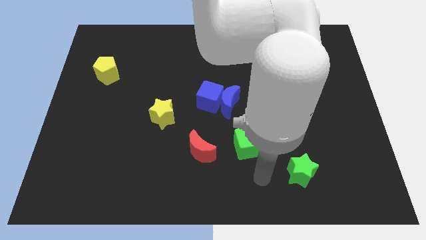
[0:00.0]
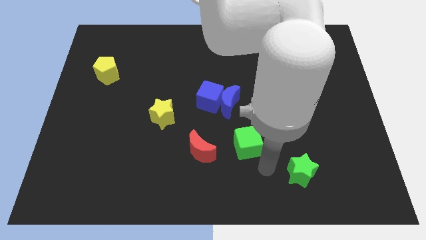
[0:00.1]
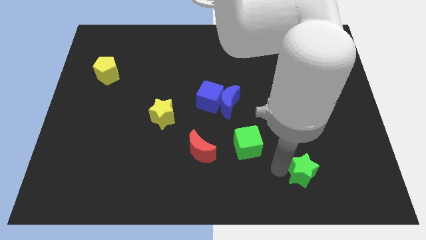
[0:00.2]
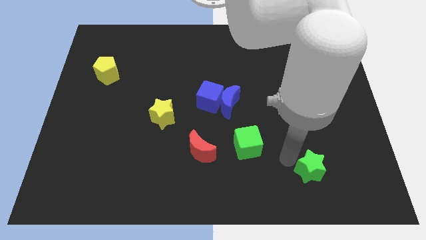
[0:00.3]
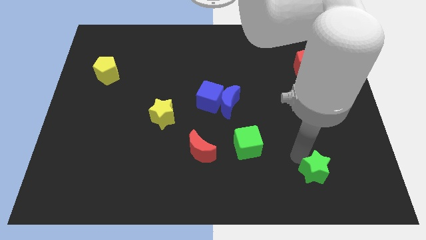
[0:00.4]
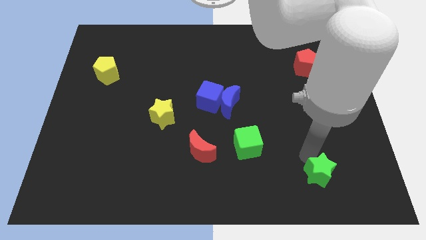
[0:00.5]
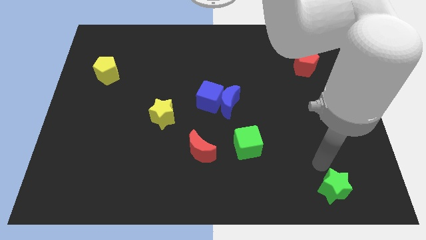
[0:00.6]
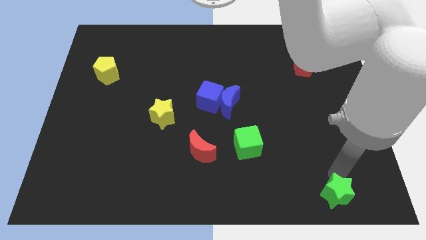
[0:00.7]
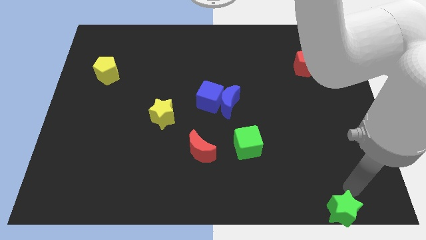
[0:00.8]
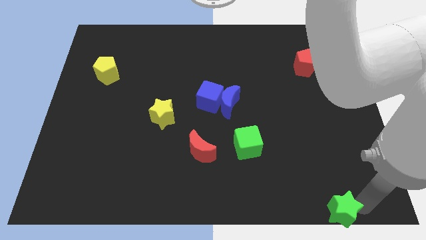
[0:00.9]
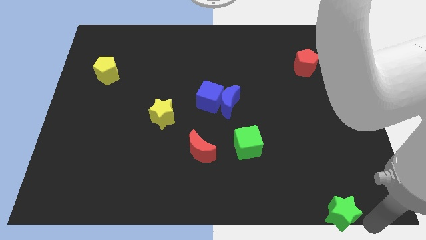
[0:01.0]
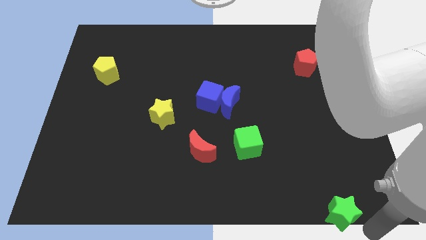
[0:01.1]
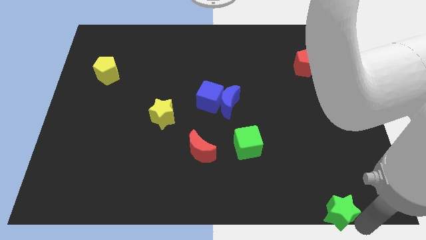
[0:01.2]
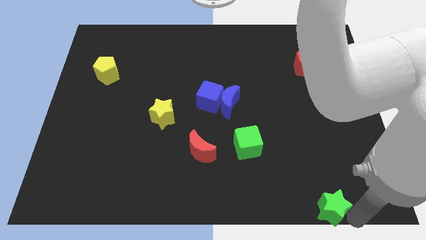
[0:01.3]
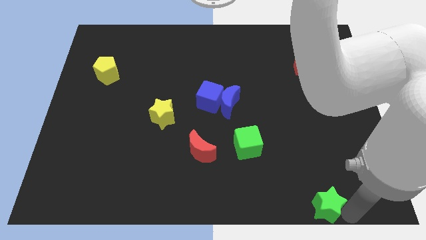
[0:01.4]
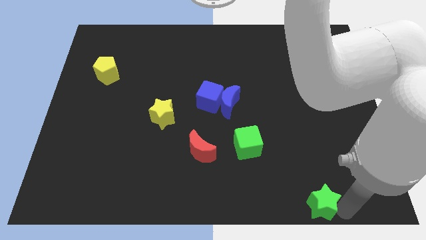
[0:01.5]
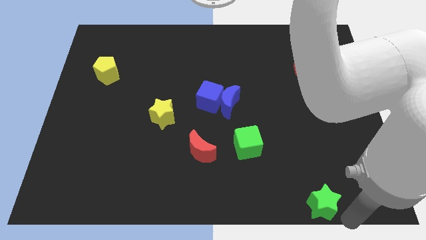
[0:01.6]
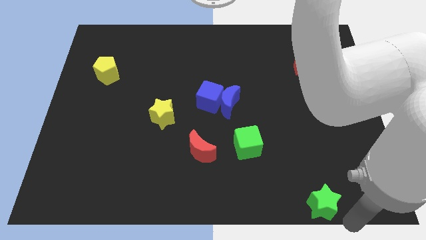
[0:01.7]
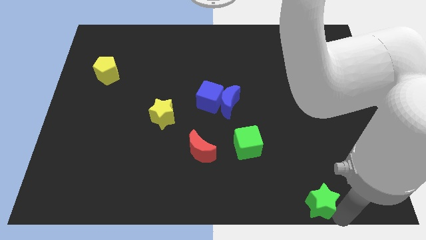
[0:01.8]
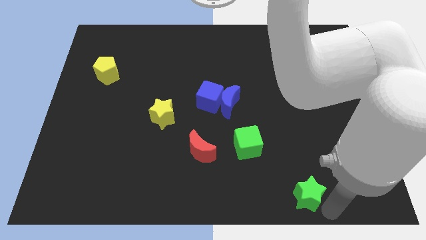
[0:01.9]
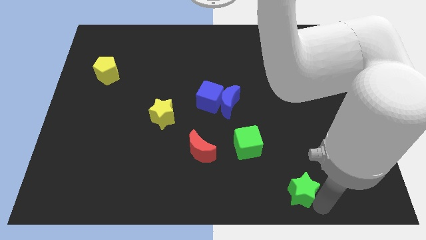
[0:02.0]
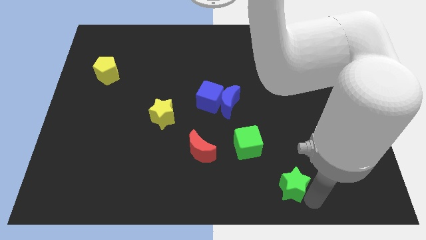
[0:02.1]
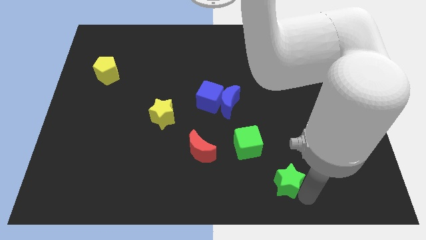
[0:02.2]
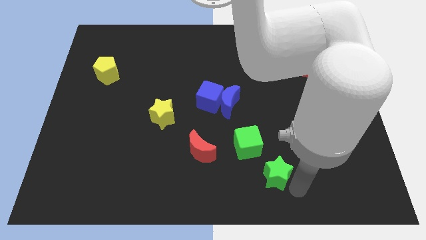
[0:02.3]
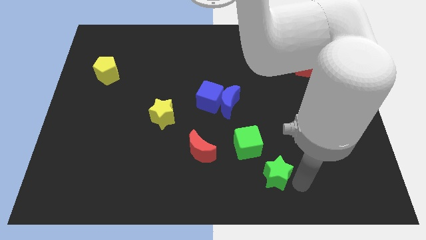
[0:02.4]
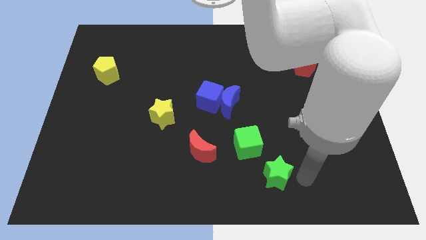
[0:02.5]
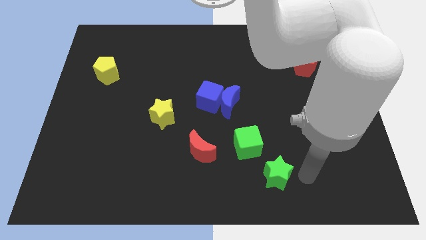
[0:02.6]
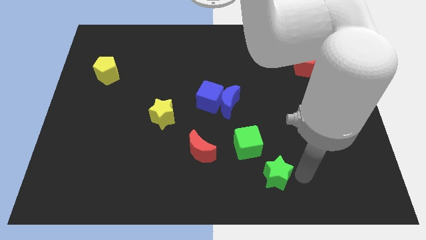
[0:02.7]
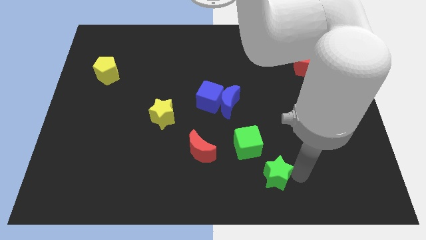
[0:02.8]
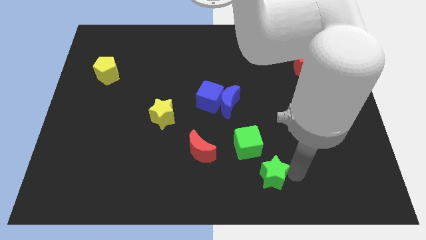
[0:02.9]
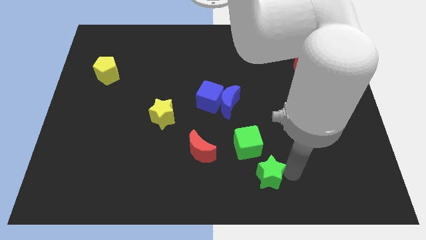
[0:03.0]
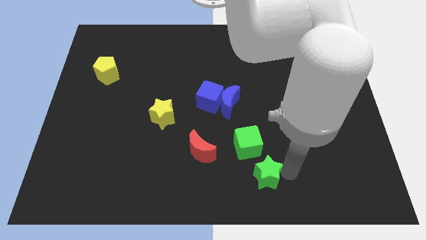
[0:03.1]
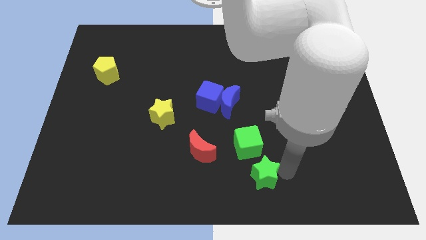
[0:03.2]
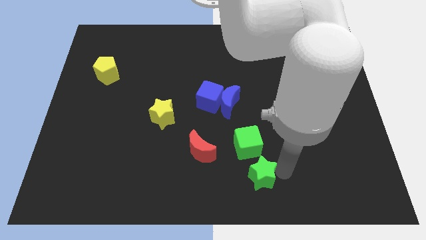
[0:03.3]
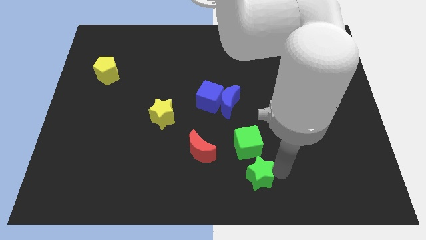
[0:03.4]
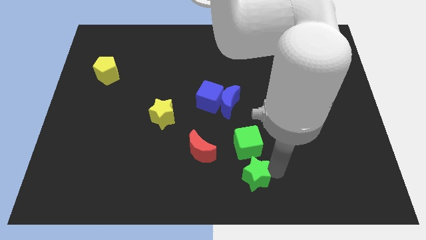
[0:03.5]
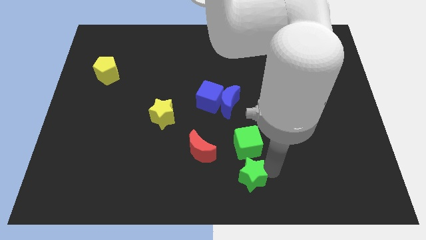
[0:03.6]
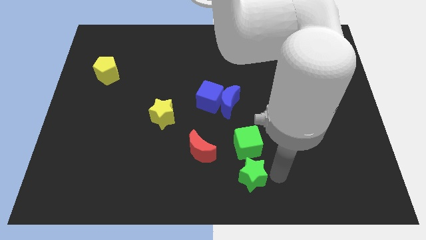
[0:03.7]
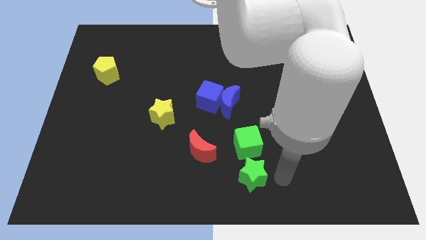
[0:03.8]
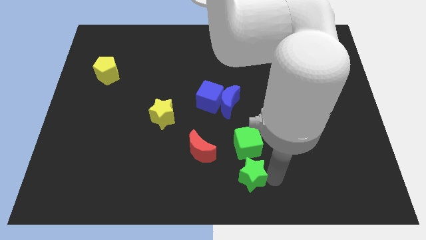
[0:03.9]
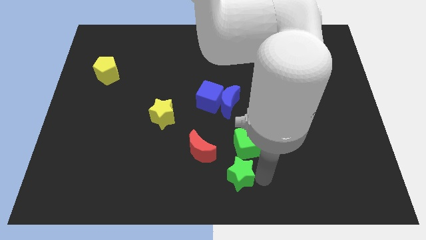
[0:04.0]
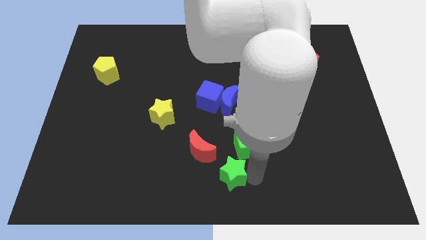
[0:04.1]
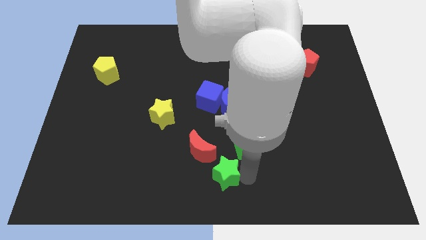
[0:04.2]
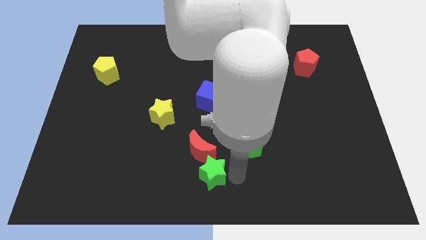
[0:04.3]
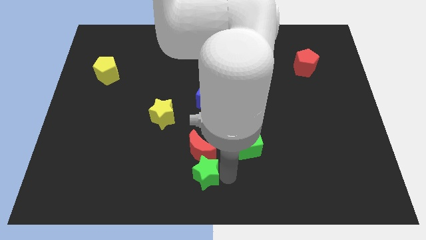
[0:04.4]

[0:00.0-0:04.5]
push the green star left

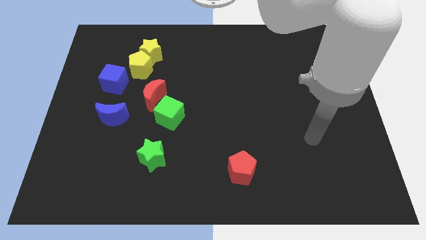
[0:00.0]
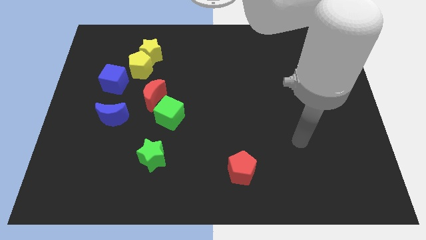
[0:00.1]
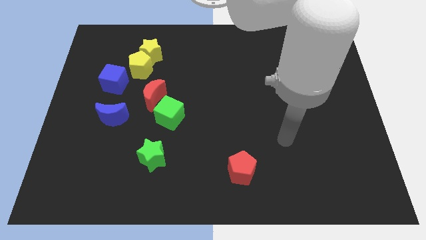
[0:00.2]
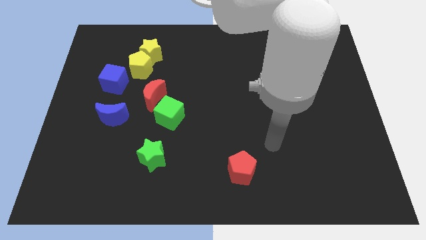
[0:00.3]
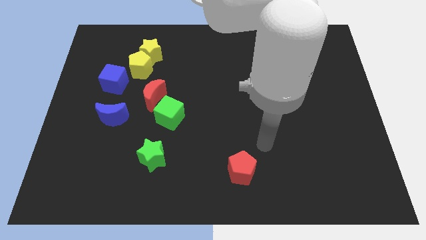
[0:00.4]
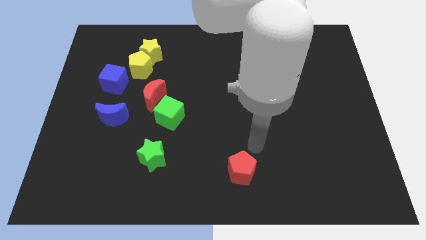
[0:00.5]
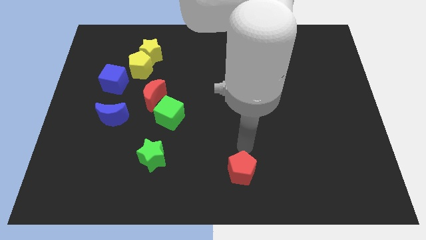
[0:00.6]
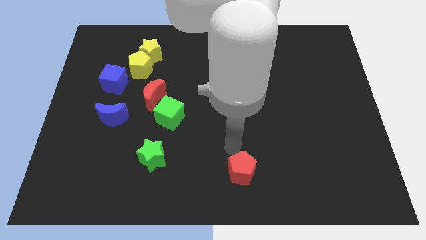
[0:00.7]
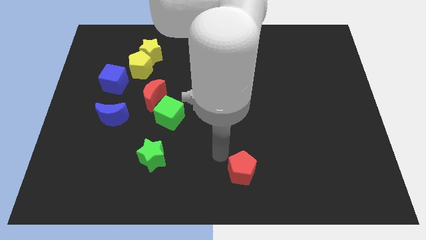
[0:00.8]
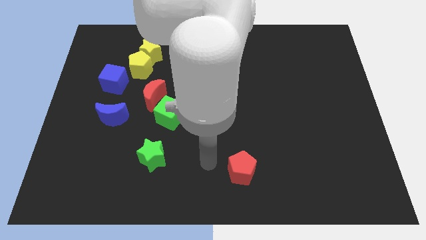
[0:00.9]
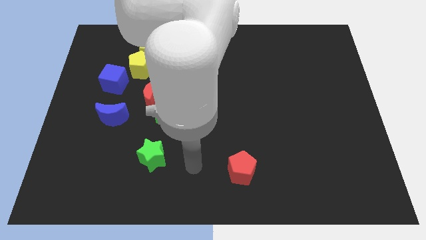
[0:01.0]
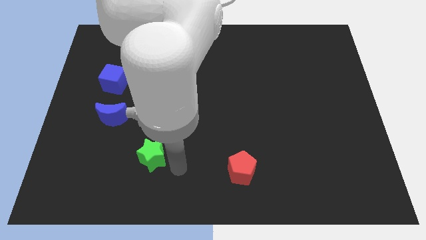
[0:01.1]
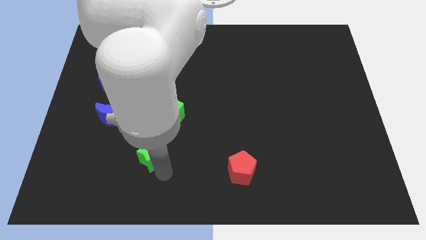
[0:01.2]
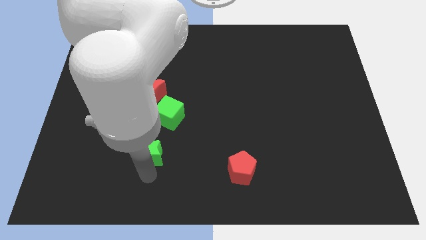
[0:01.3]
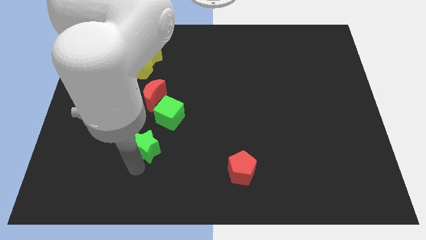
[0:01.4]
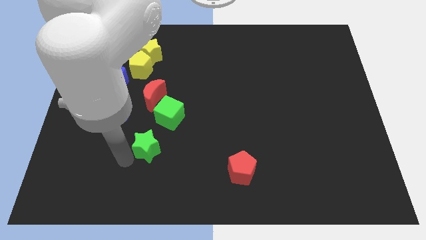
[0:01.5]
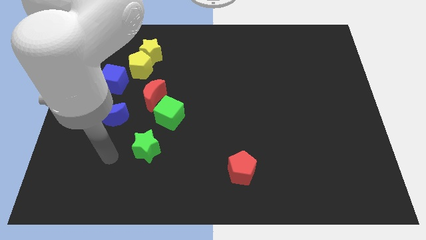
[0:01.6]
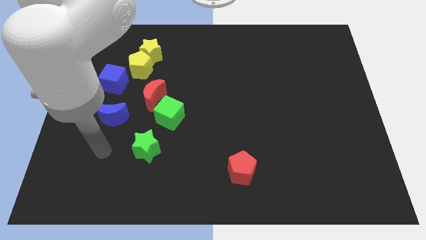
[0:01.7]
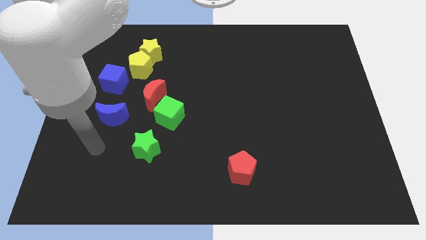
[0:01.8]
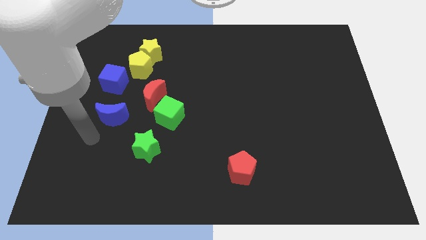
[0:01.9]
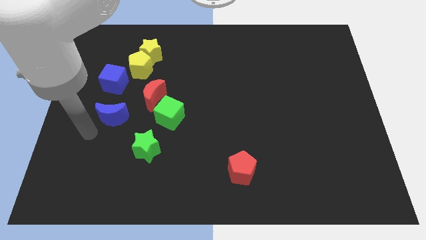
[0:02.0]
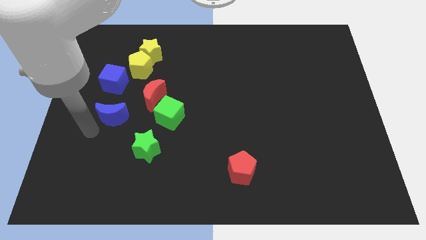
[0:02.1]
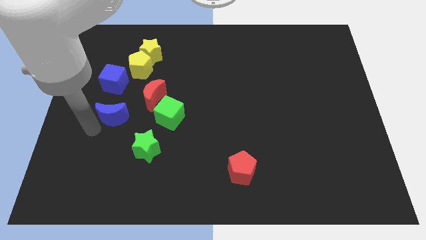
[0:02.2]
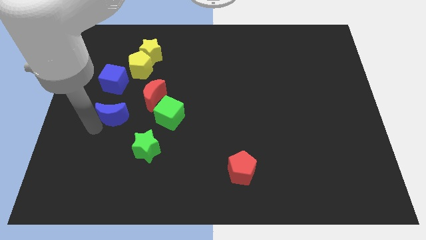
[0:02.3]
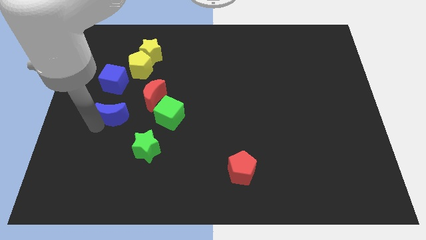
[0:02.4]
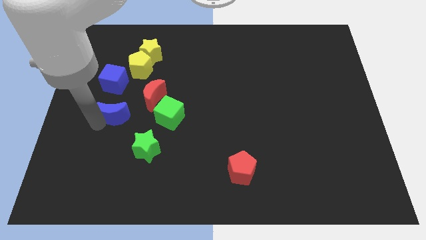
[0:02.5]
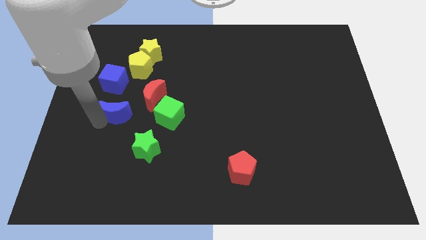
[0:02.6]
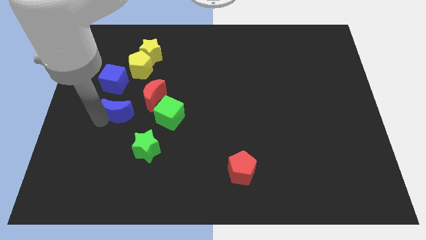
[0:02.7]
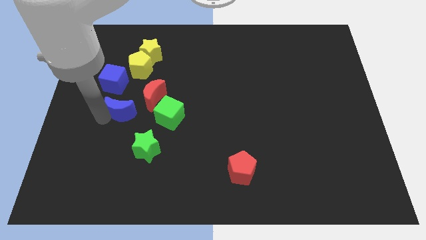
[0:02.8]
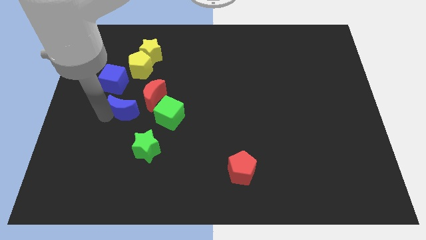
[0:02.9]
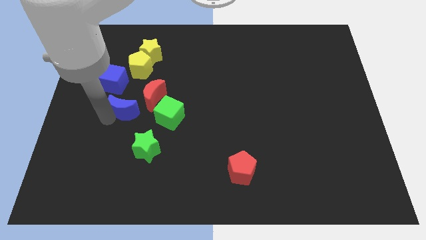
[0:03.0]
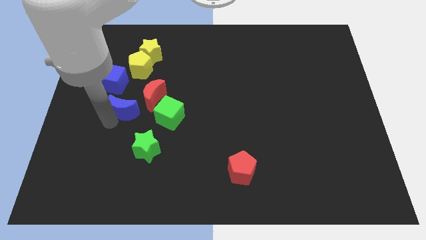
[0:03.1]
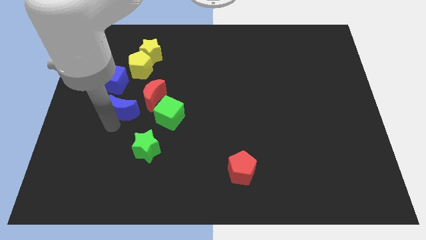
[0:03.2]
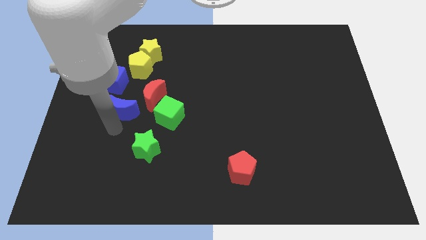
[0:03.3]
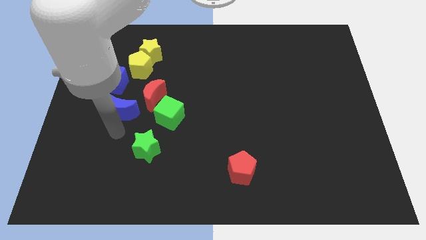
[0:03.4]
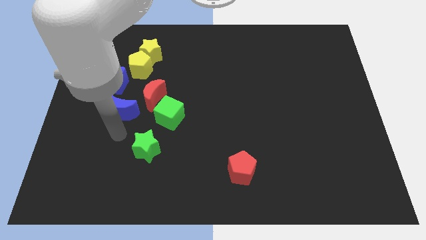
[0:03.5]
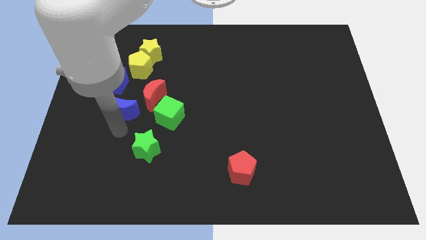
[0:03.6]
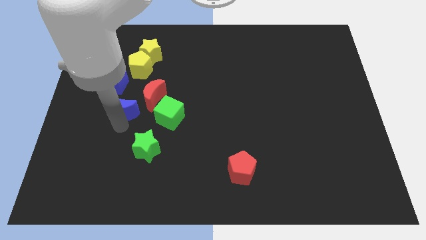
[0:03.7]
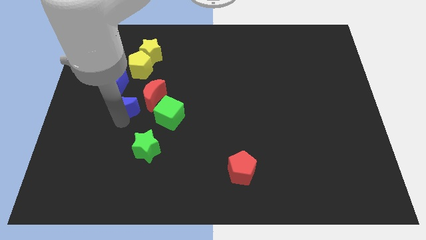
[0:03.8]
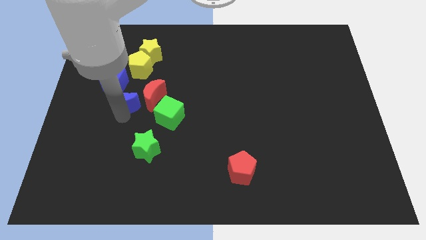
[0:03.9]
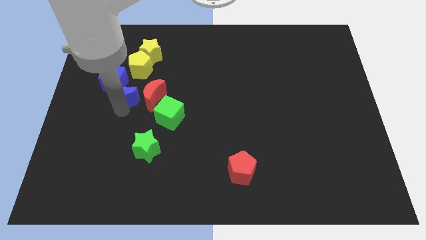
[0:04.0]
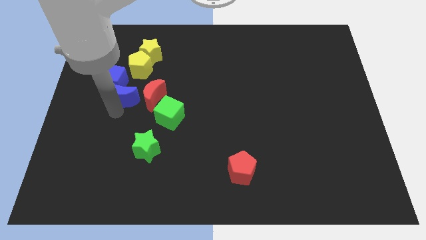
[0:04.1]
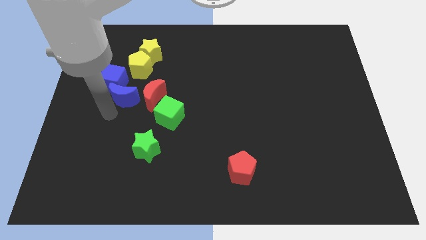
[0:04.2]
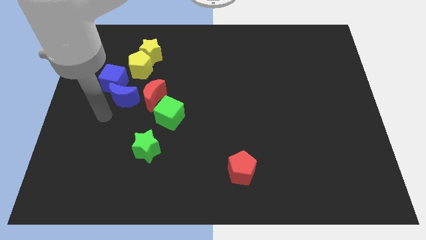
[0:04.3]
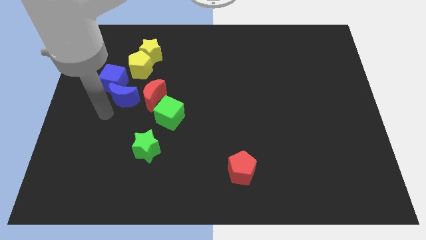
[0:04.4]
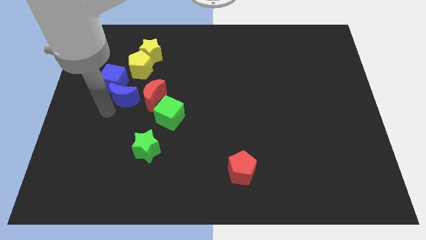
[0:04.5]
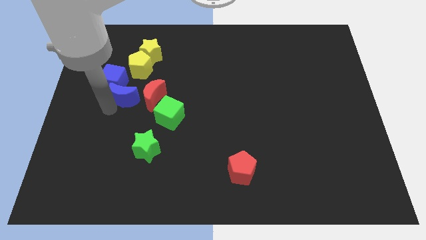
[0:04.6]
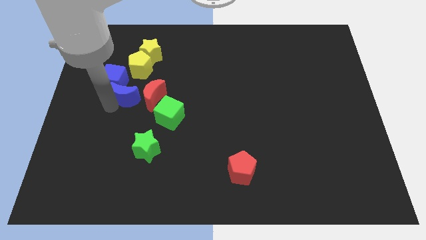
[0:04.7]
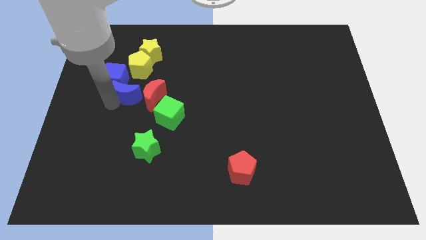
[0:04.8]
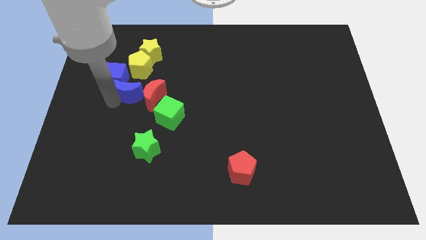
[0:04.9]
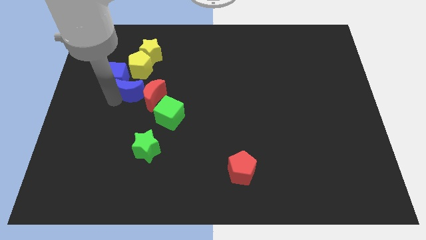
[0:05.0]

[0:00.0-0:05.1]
push the blue moon a little upwards and right diagonally
